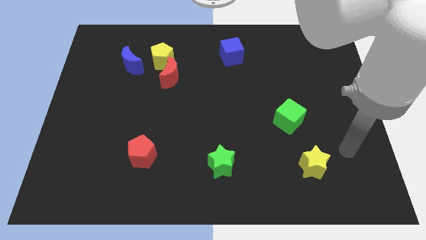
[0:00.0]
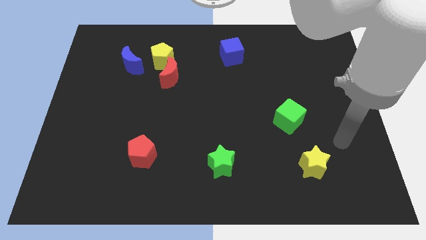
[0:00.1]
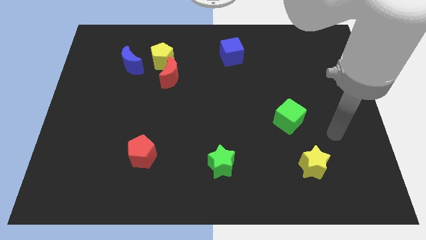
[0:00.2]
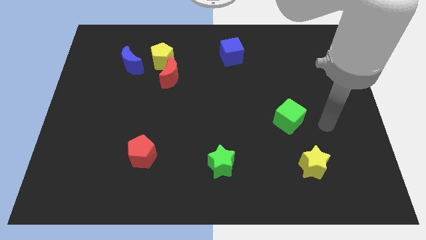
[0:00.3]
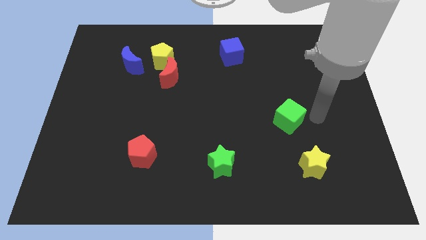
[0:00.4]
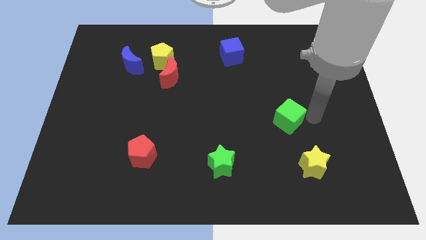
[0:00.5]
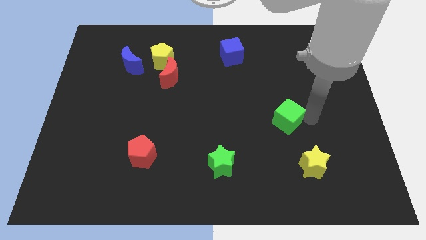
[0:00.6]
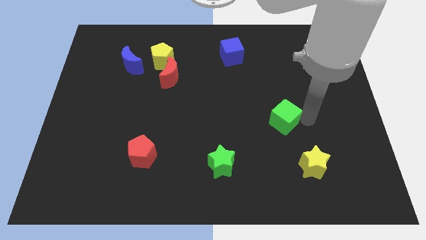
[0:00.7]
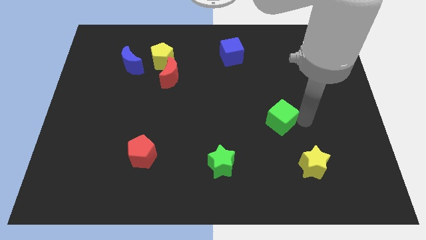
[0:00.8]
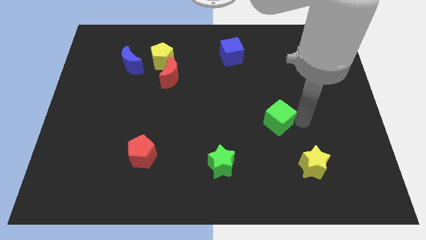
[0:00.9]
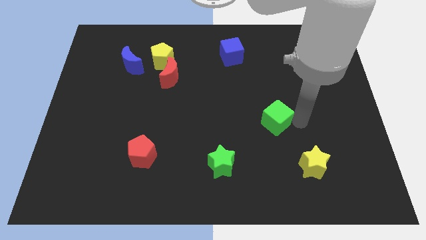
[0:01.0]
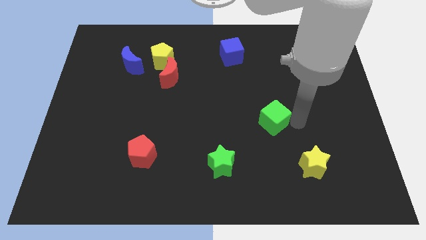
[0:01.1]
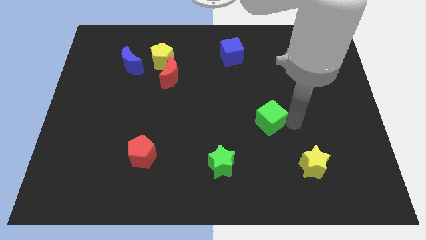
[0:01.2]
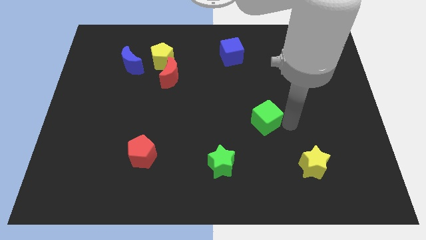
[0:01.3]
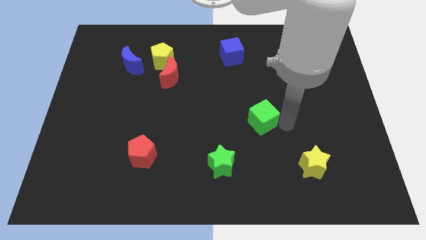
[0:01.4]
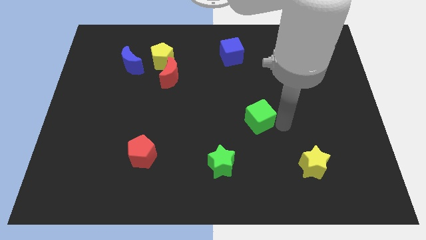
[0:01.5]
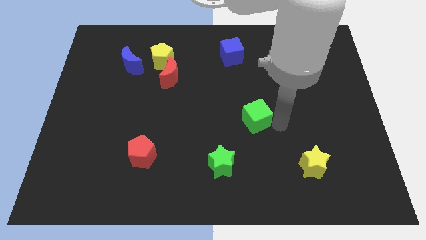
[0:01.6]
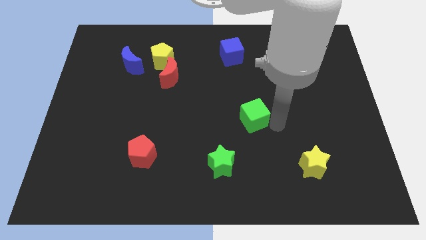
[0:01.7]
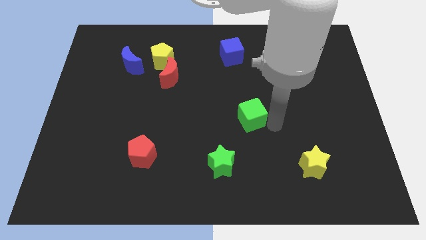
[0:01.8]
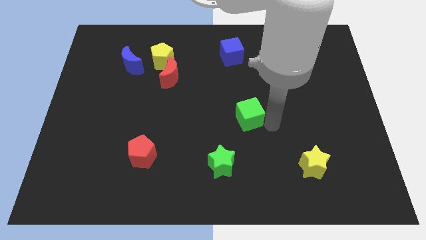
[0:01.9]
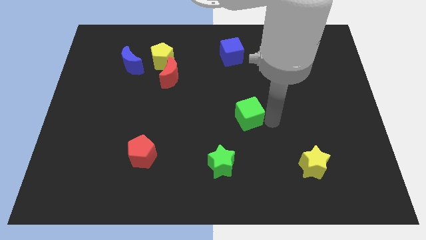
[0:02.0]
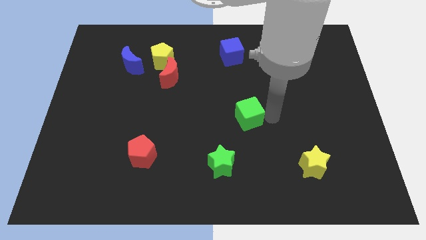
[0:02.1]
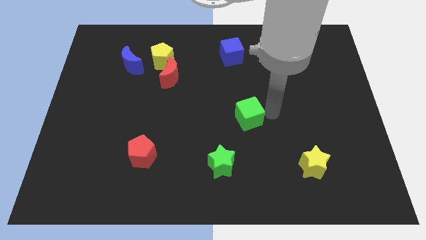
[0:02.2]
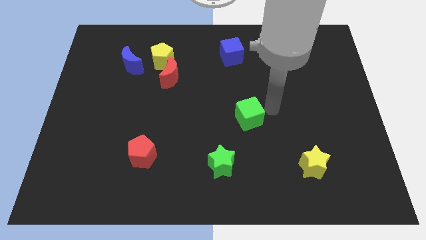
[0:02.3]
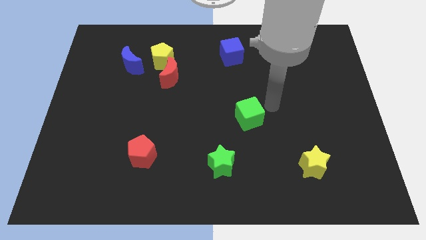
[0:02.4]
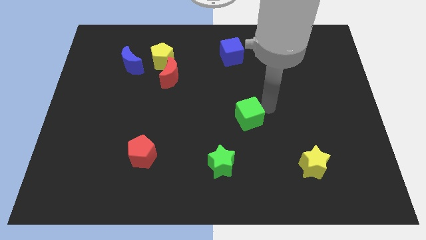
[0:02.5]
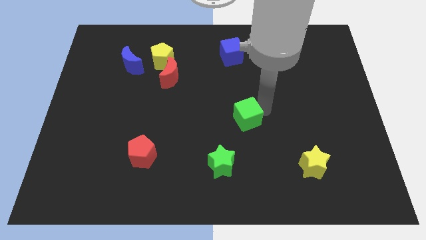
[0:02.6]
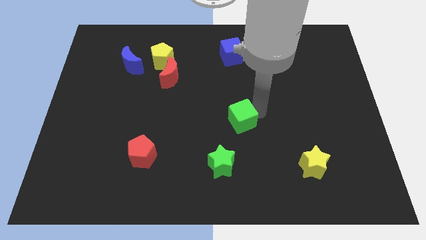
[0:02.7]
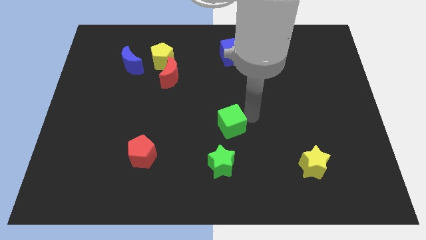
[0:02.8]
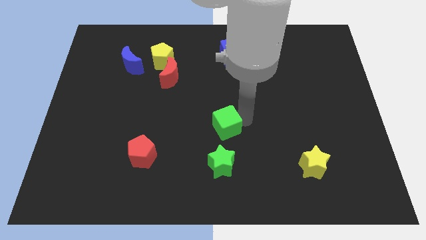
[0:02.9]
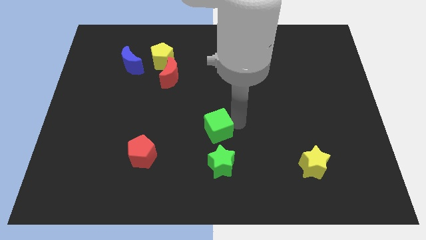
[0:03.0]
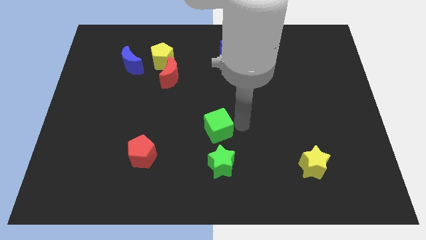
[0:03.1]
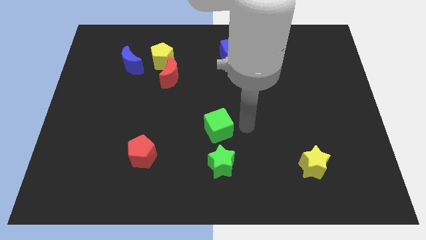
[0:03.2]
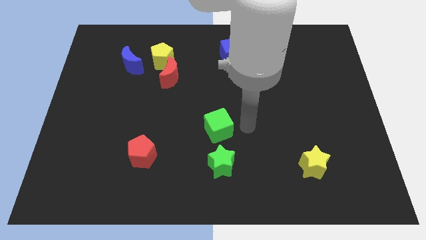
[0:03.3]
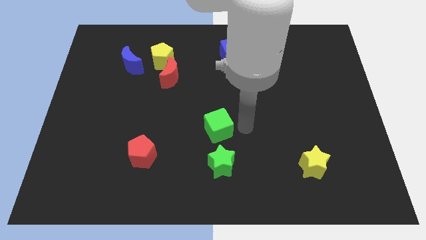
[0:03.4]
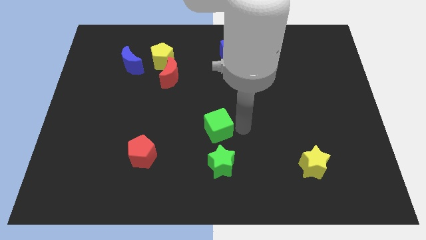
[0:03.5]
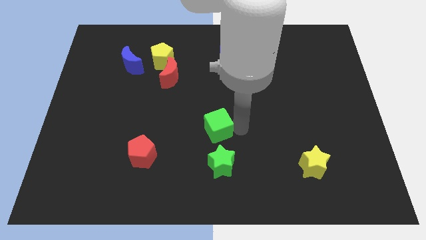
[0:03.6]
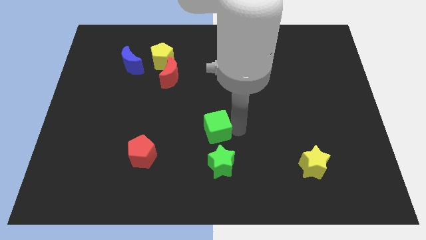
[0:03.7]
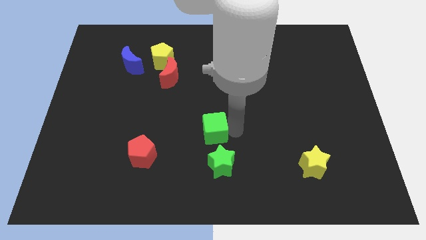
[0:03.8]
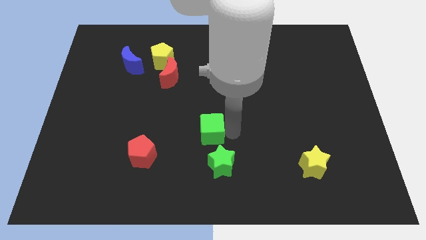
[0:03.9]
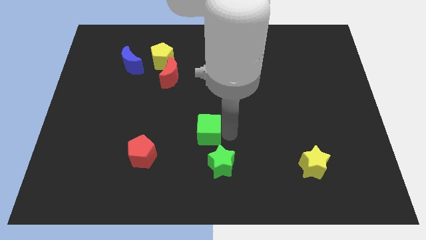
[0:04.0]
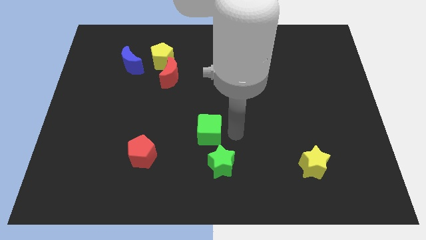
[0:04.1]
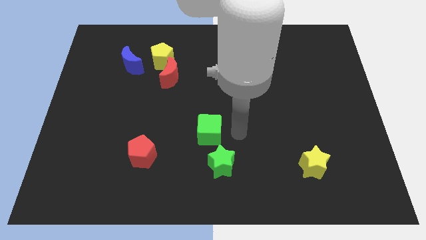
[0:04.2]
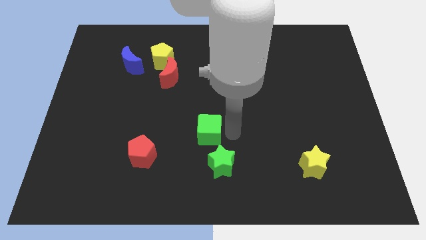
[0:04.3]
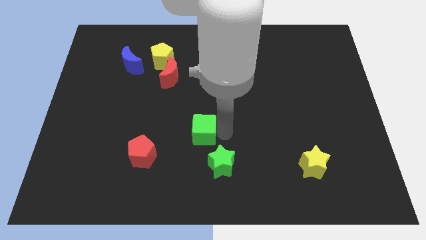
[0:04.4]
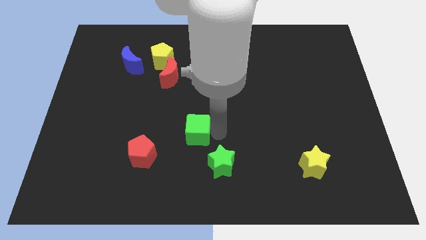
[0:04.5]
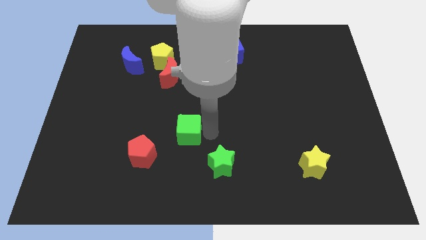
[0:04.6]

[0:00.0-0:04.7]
put the green cube to the top right side of the red pentagon

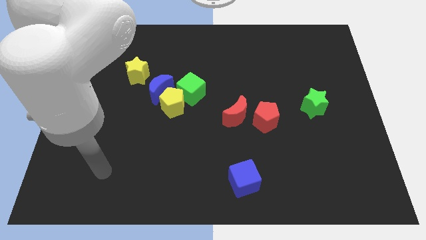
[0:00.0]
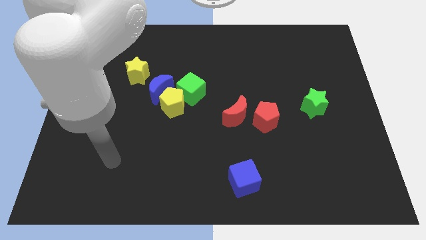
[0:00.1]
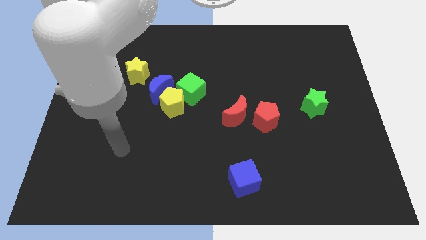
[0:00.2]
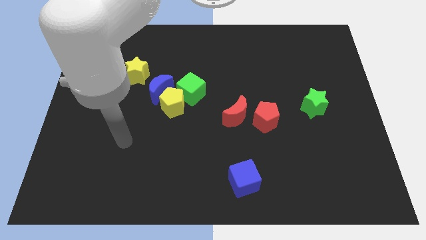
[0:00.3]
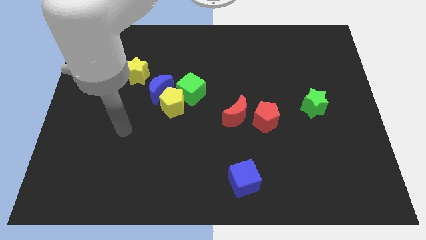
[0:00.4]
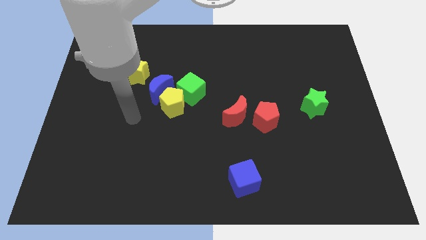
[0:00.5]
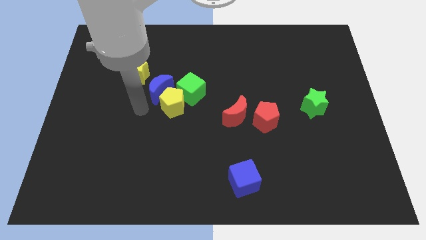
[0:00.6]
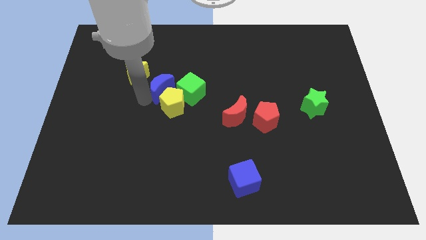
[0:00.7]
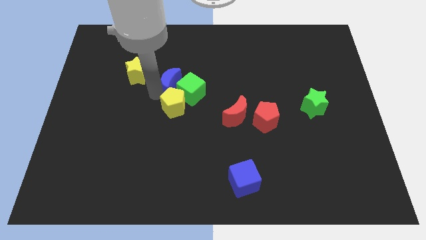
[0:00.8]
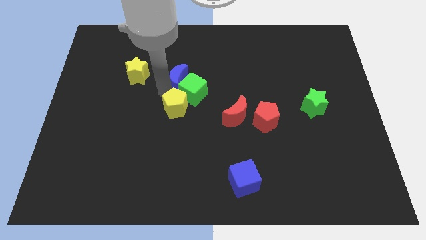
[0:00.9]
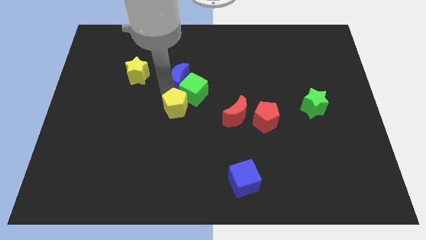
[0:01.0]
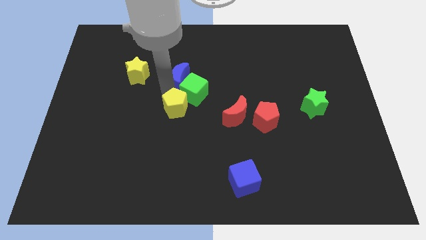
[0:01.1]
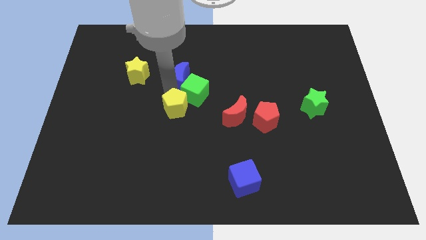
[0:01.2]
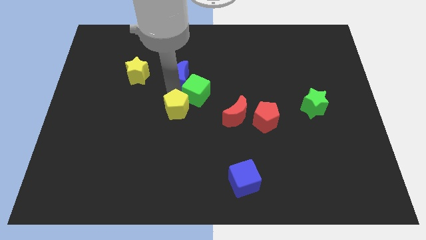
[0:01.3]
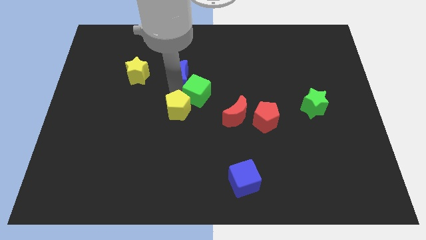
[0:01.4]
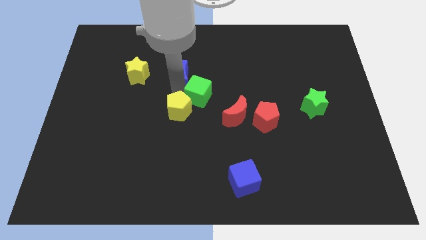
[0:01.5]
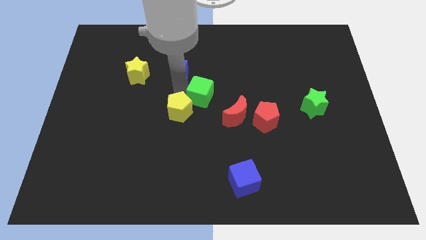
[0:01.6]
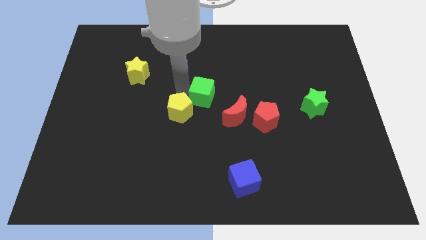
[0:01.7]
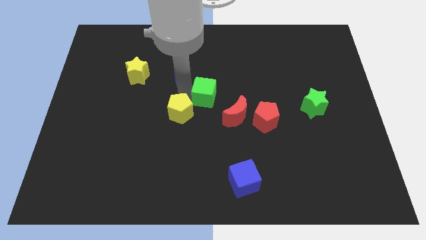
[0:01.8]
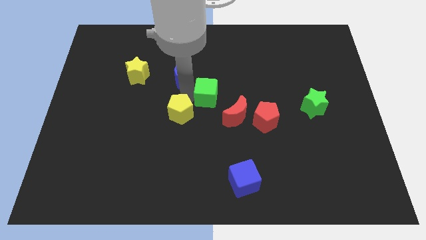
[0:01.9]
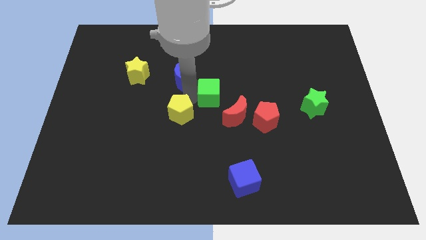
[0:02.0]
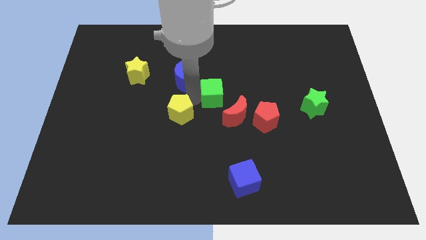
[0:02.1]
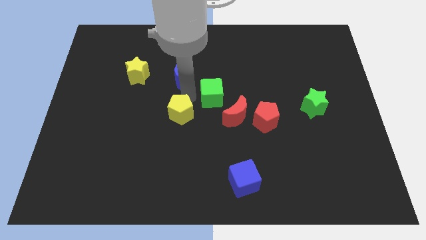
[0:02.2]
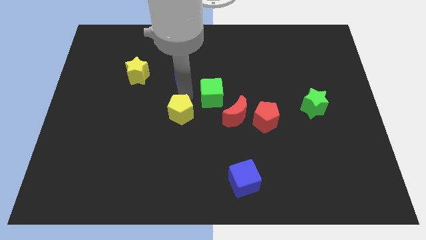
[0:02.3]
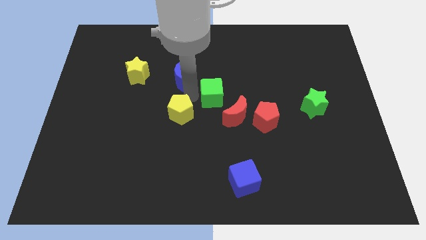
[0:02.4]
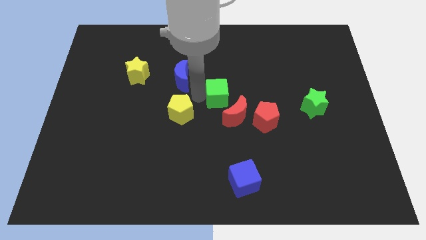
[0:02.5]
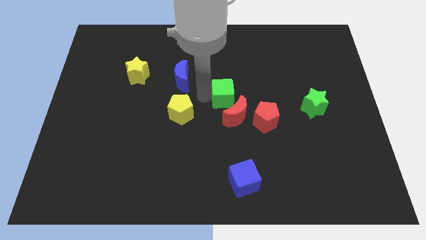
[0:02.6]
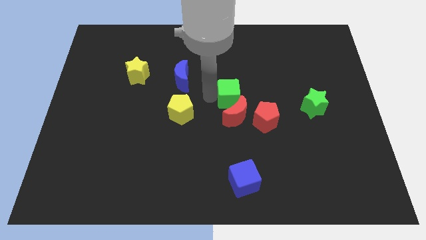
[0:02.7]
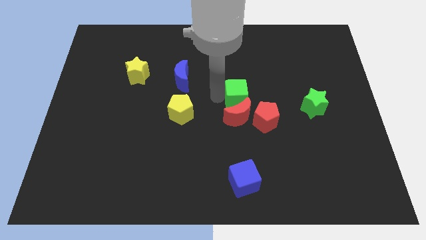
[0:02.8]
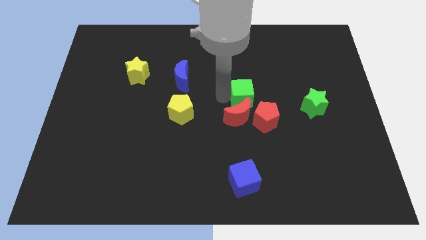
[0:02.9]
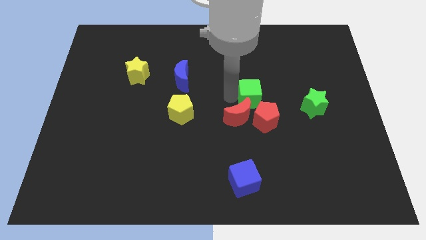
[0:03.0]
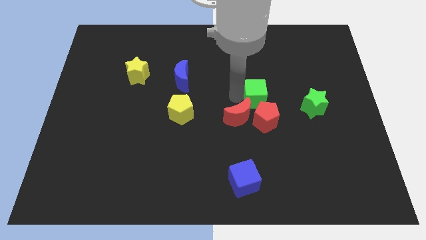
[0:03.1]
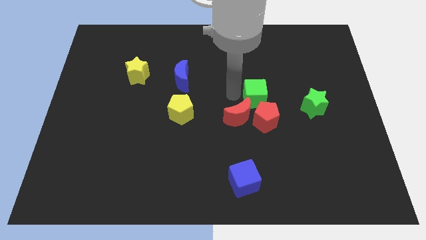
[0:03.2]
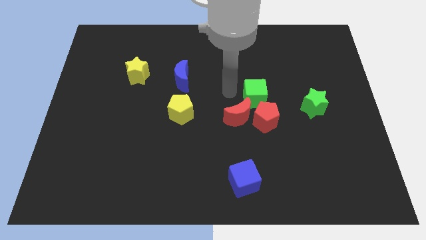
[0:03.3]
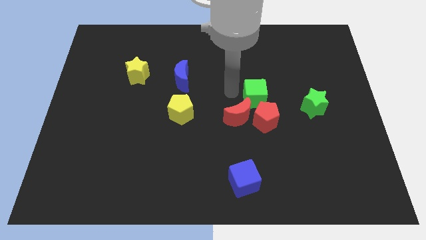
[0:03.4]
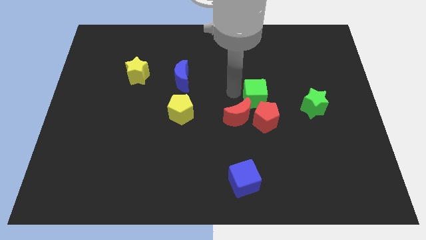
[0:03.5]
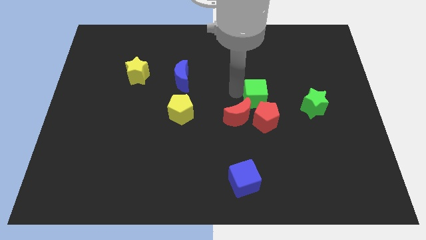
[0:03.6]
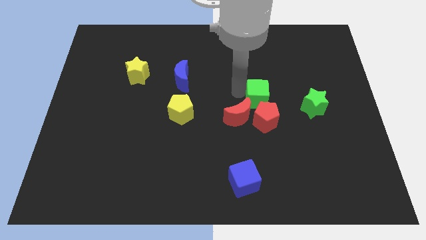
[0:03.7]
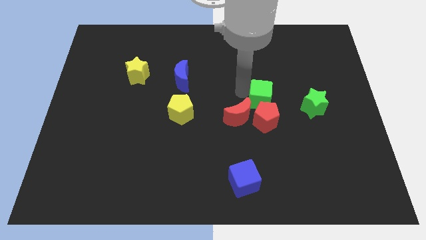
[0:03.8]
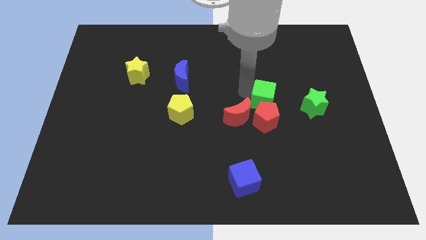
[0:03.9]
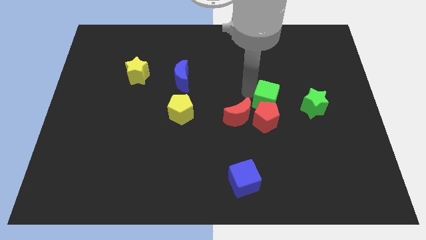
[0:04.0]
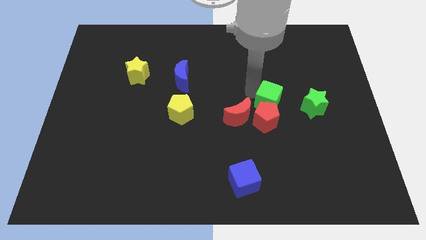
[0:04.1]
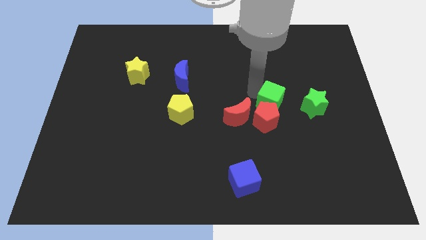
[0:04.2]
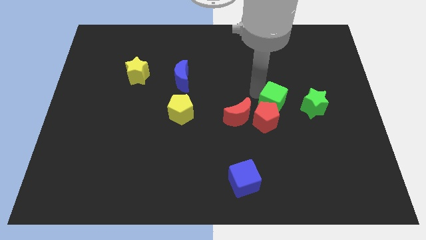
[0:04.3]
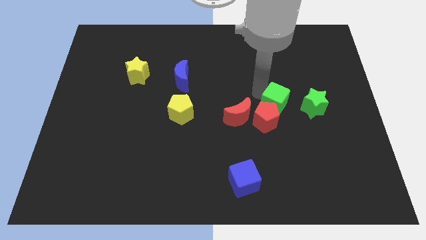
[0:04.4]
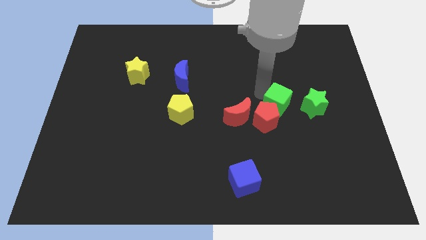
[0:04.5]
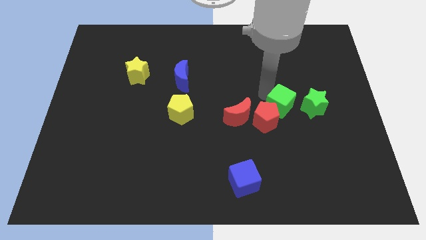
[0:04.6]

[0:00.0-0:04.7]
slide the green cube right of the red pentagon
